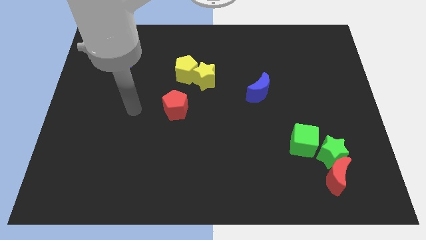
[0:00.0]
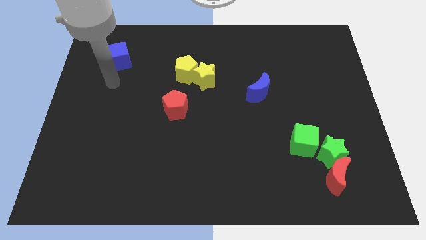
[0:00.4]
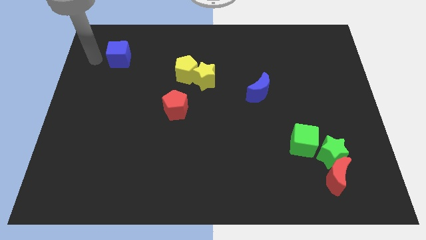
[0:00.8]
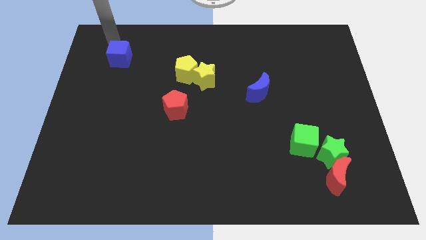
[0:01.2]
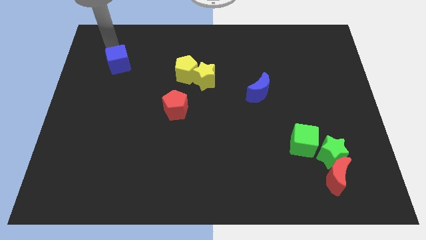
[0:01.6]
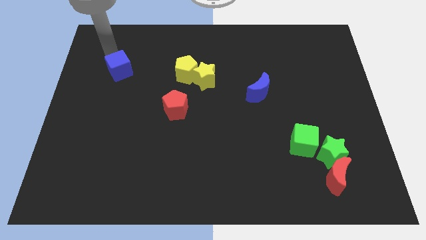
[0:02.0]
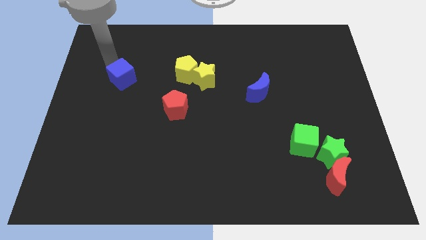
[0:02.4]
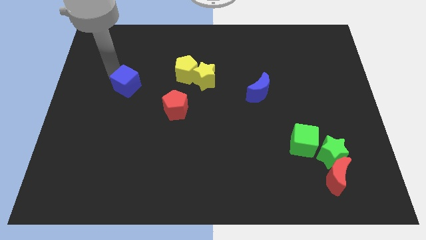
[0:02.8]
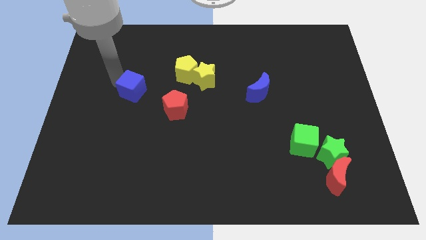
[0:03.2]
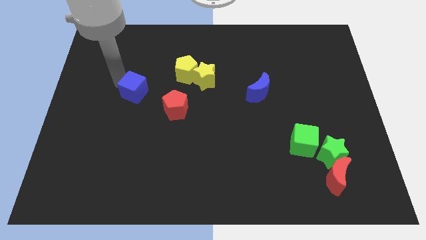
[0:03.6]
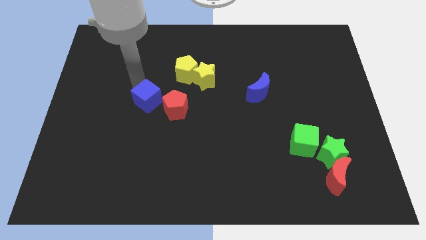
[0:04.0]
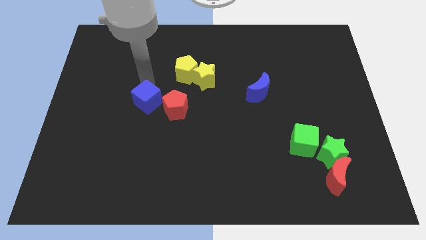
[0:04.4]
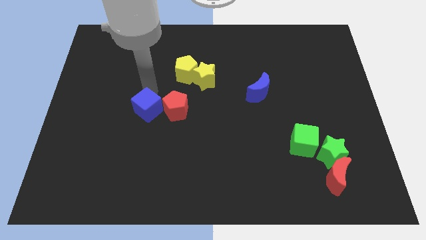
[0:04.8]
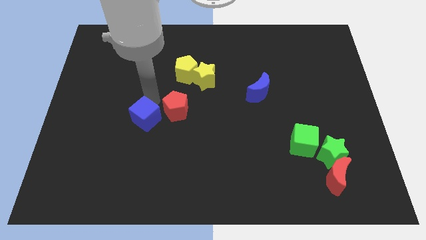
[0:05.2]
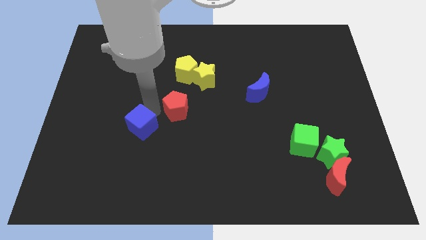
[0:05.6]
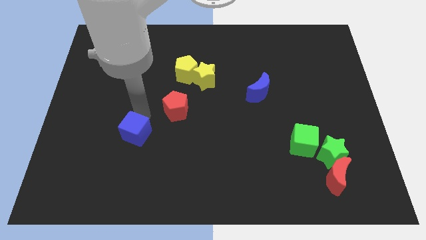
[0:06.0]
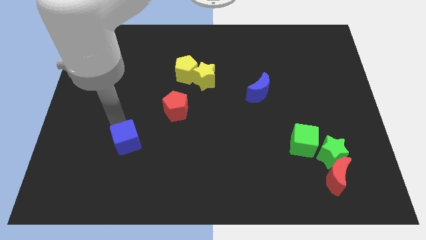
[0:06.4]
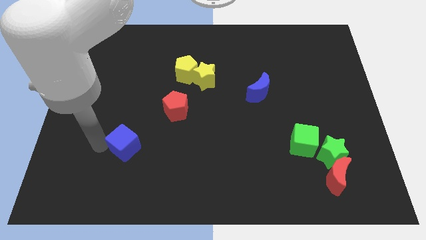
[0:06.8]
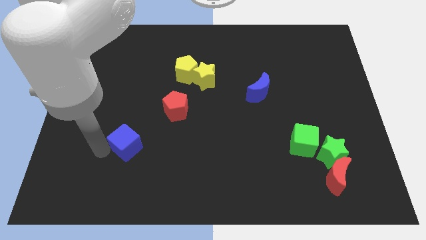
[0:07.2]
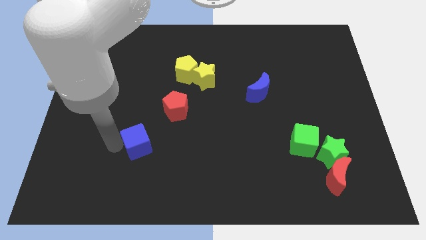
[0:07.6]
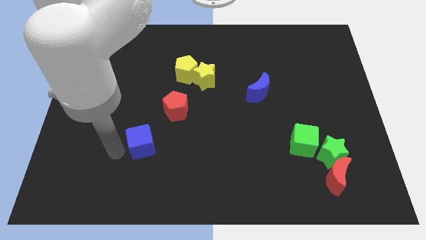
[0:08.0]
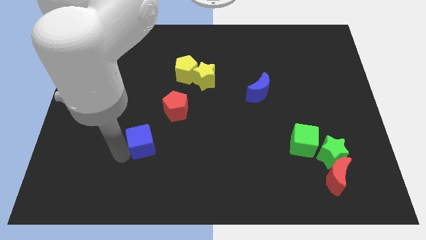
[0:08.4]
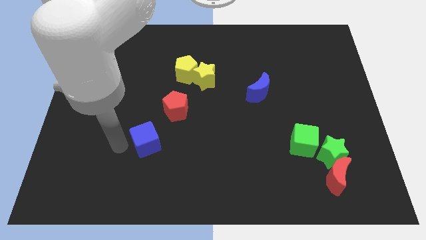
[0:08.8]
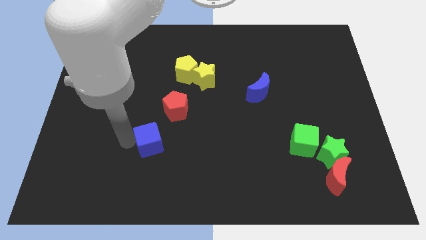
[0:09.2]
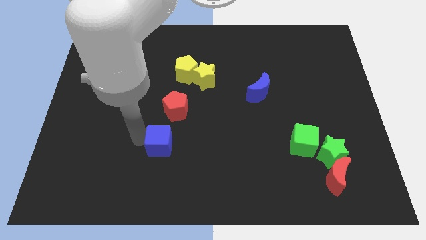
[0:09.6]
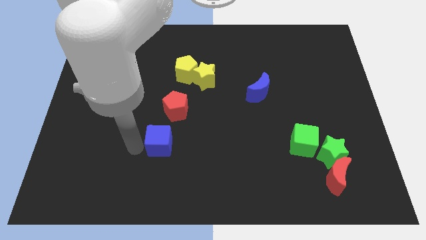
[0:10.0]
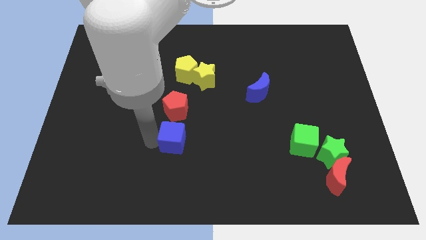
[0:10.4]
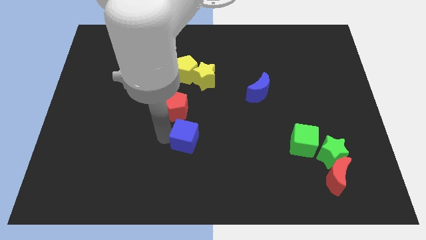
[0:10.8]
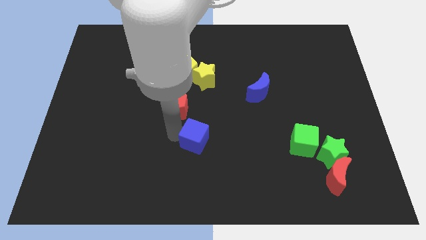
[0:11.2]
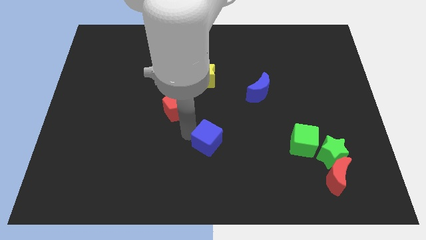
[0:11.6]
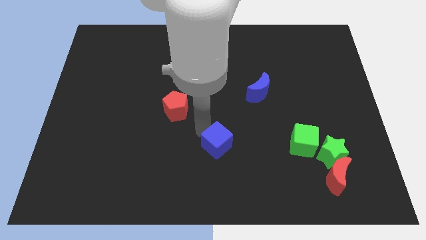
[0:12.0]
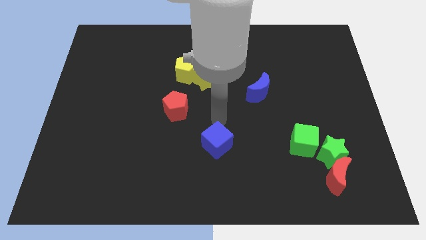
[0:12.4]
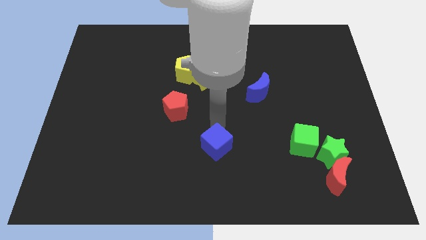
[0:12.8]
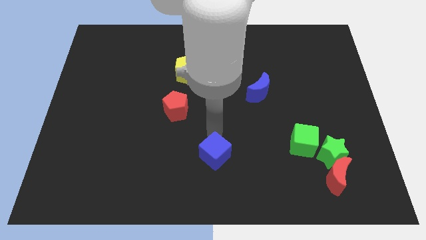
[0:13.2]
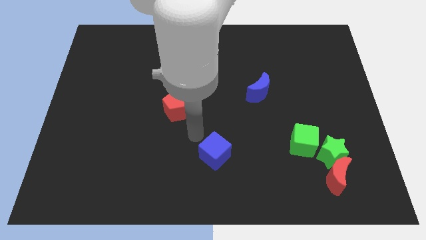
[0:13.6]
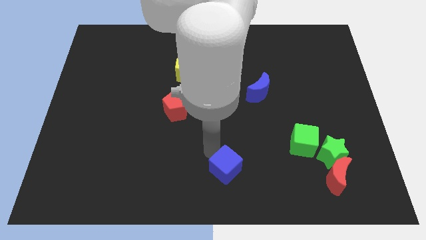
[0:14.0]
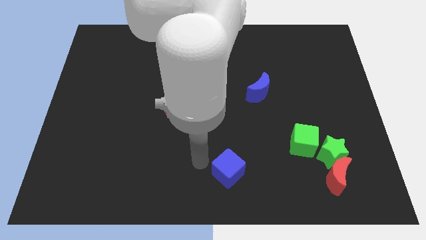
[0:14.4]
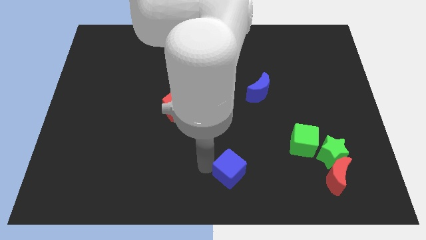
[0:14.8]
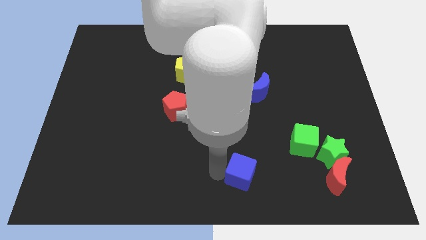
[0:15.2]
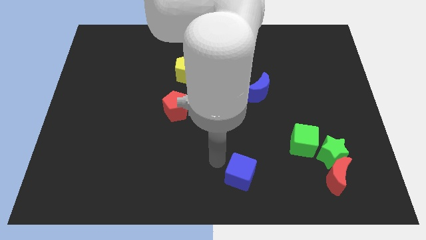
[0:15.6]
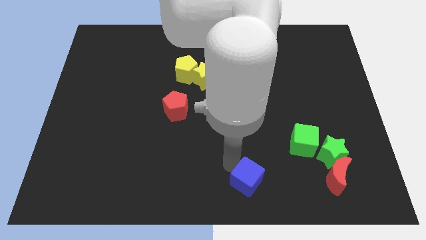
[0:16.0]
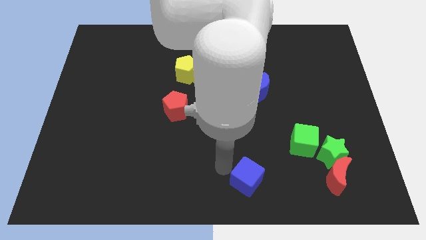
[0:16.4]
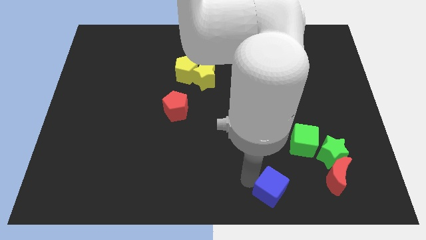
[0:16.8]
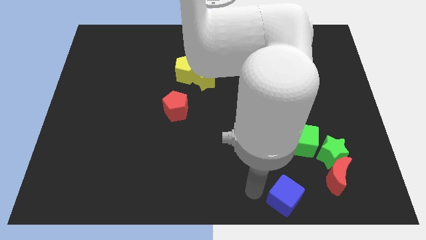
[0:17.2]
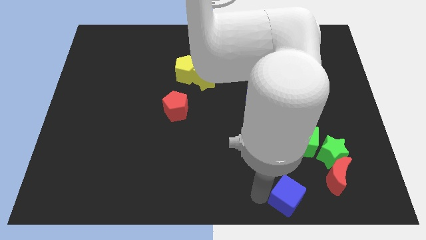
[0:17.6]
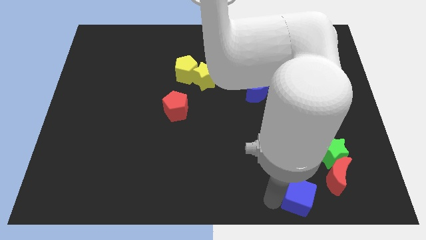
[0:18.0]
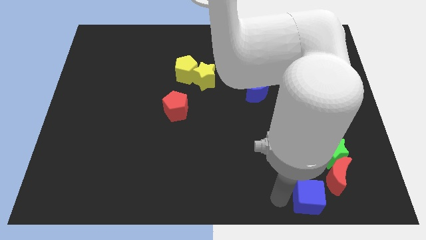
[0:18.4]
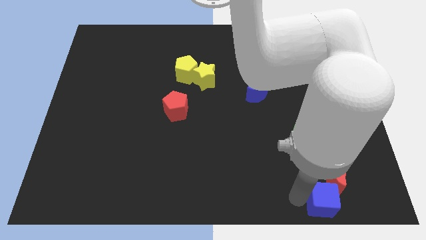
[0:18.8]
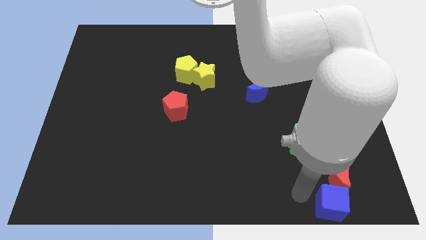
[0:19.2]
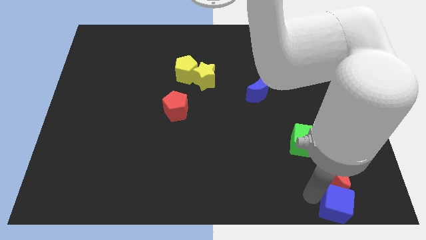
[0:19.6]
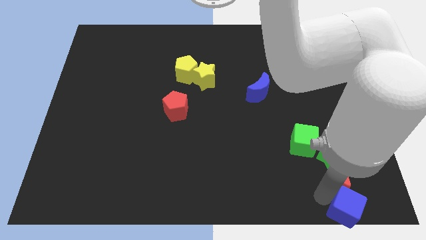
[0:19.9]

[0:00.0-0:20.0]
put the blue cube to the bottom right

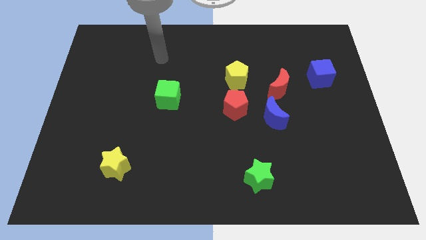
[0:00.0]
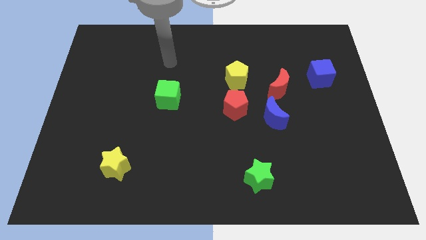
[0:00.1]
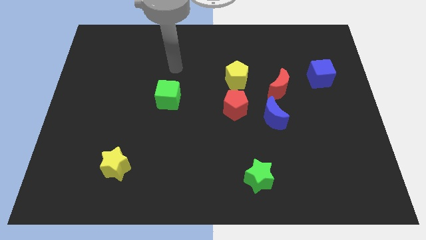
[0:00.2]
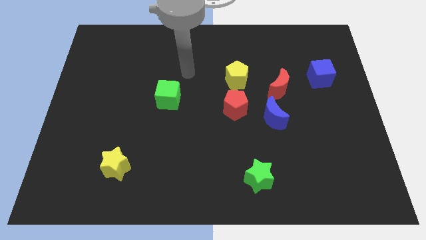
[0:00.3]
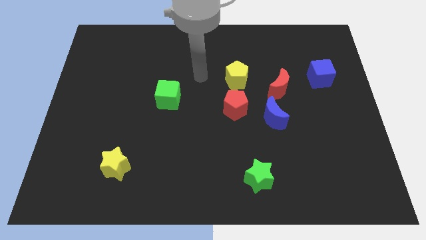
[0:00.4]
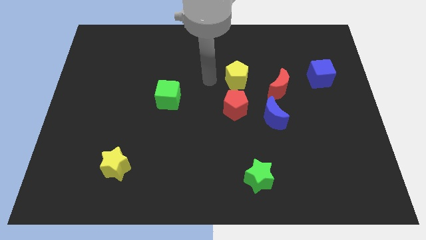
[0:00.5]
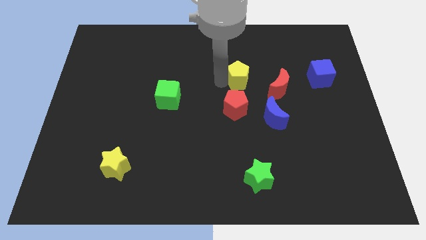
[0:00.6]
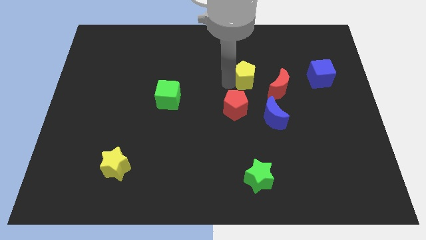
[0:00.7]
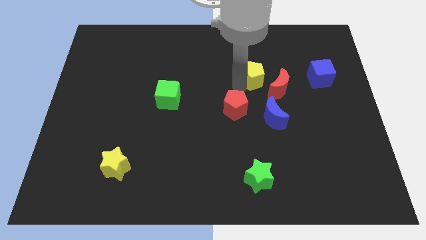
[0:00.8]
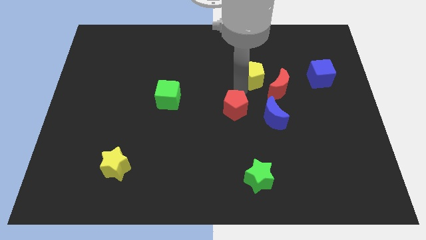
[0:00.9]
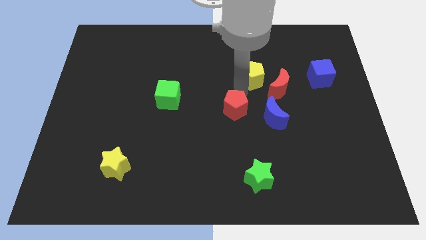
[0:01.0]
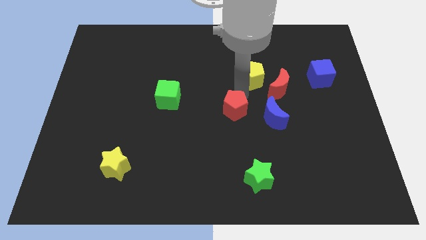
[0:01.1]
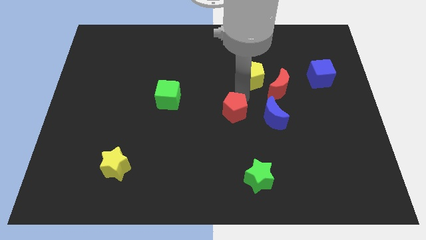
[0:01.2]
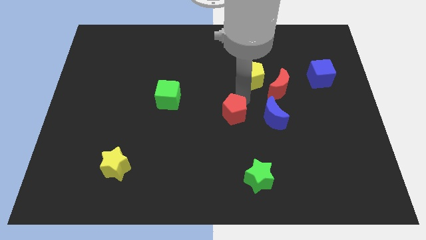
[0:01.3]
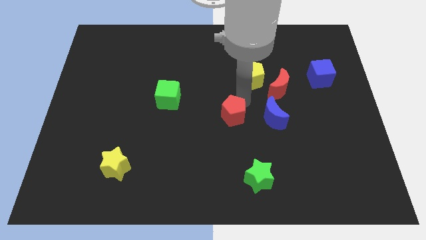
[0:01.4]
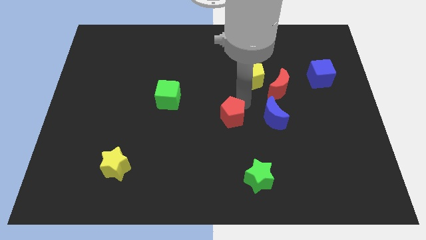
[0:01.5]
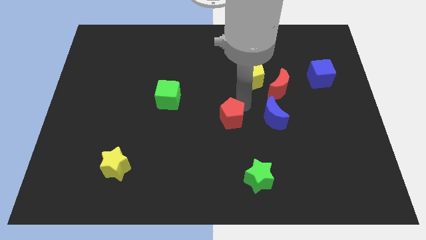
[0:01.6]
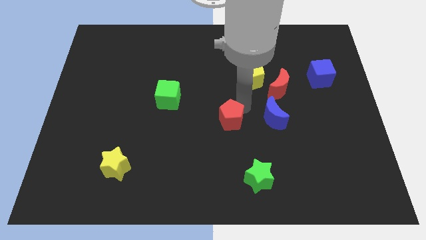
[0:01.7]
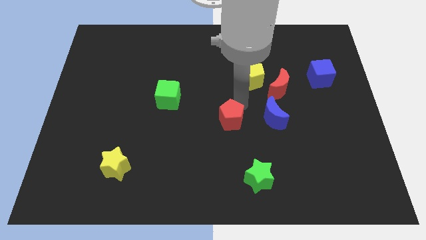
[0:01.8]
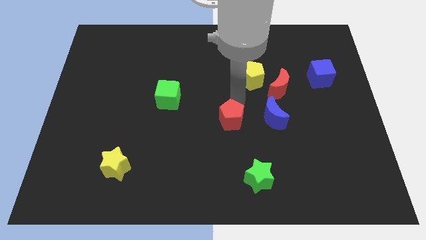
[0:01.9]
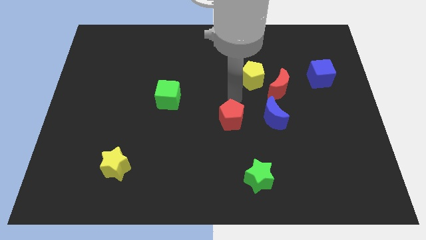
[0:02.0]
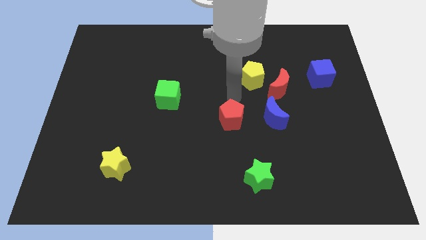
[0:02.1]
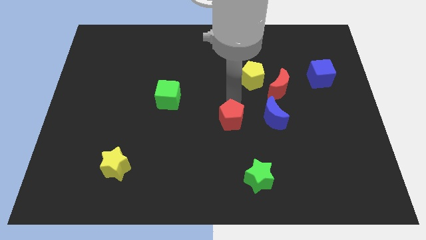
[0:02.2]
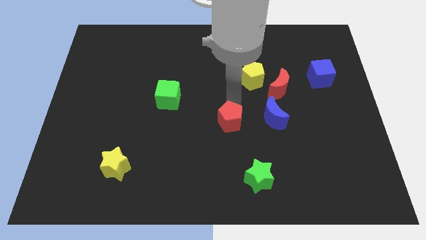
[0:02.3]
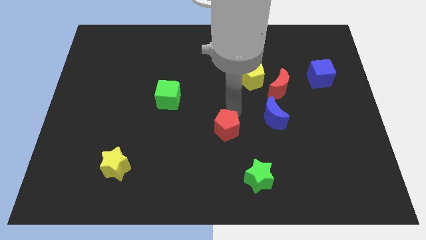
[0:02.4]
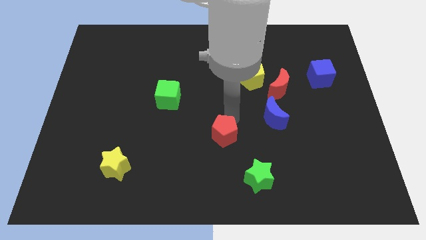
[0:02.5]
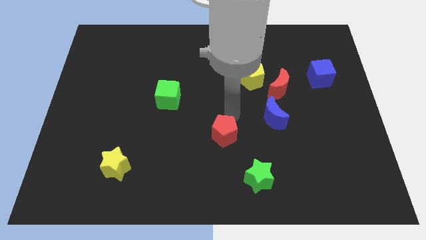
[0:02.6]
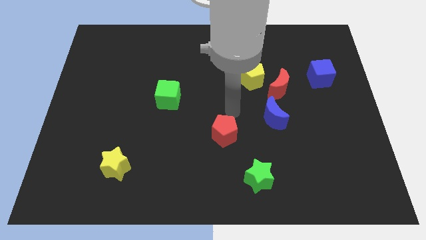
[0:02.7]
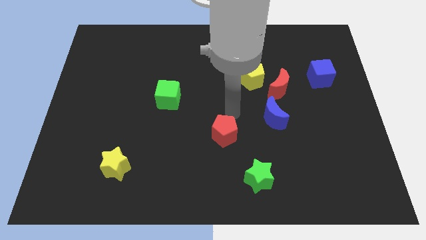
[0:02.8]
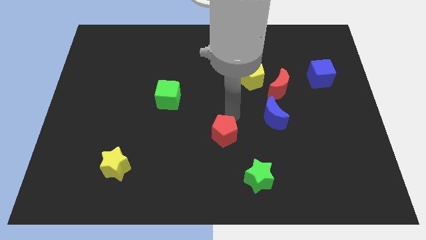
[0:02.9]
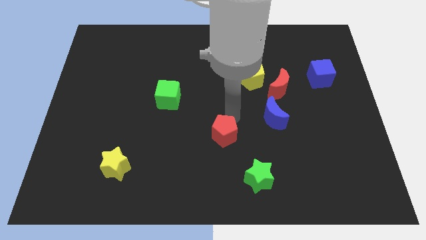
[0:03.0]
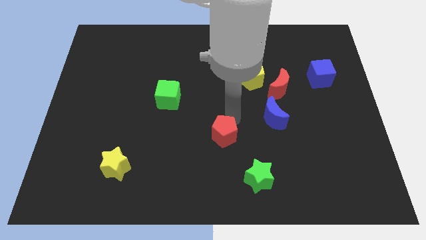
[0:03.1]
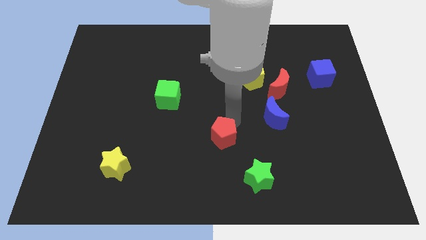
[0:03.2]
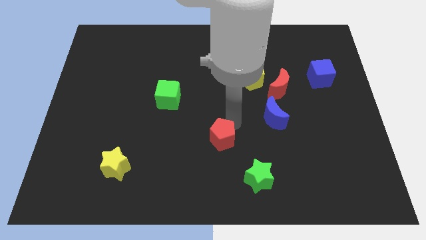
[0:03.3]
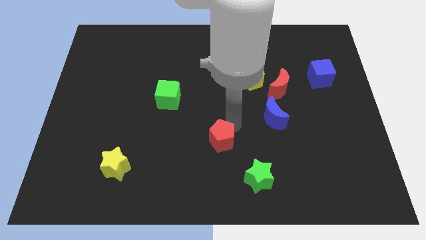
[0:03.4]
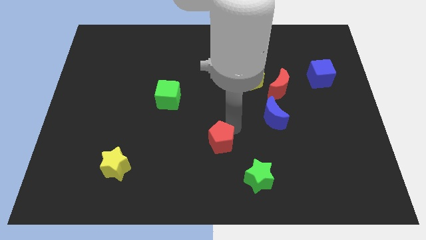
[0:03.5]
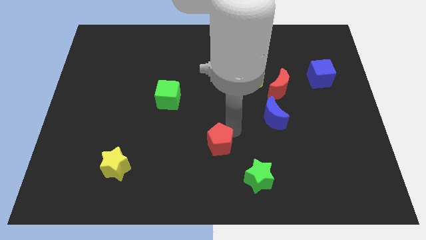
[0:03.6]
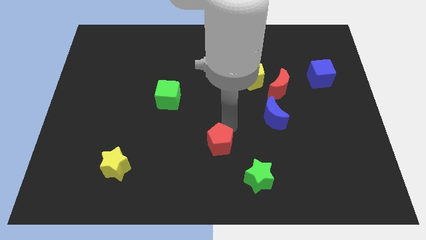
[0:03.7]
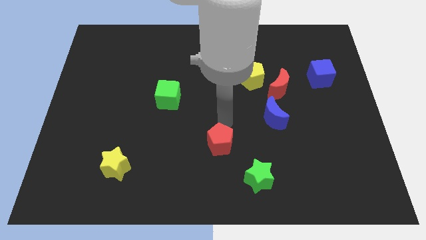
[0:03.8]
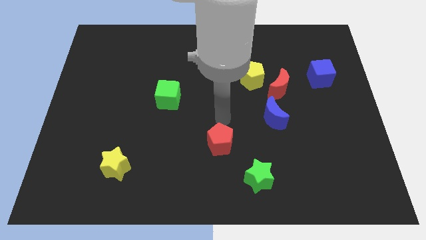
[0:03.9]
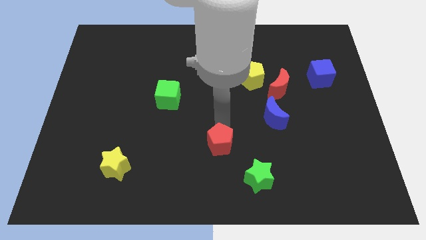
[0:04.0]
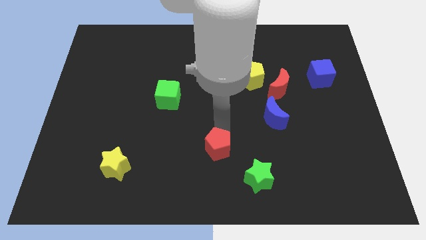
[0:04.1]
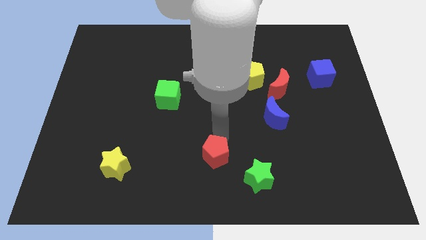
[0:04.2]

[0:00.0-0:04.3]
move the red pentagon to the bottom
